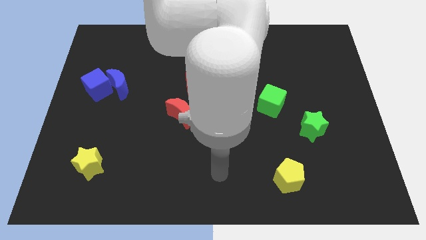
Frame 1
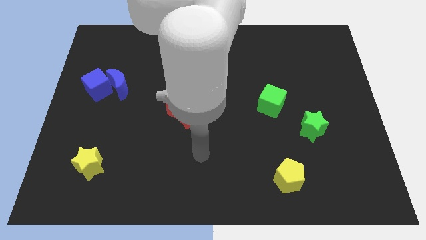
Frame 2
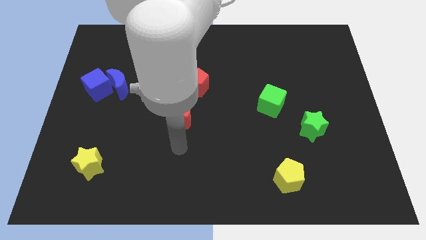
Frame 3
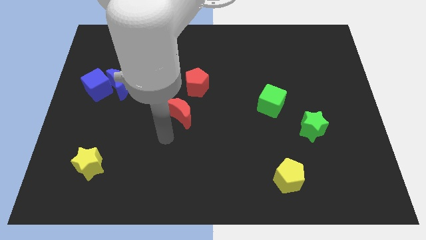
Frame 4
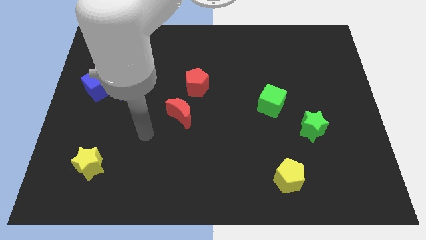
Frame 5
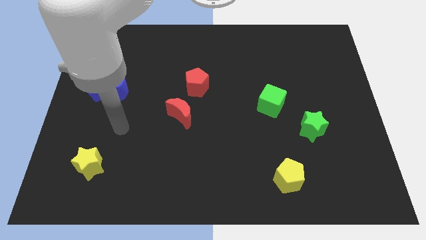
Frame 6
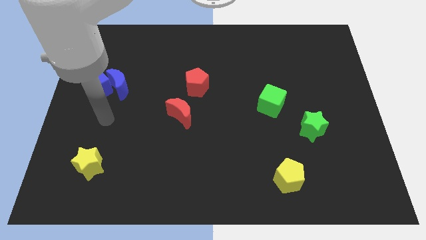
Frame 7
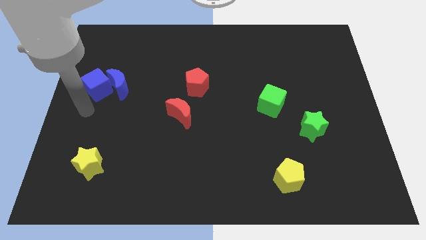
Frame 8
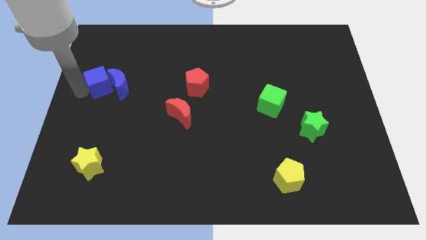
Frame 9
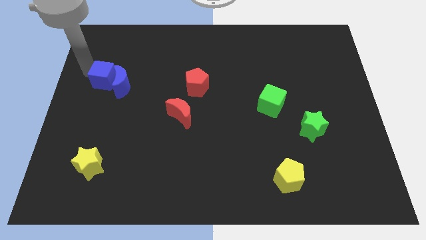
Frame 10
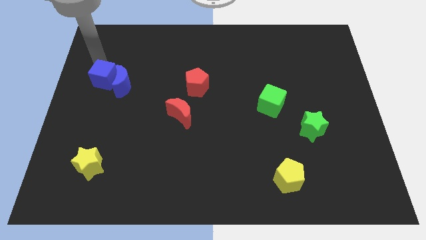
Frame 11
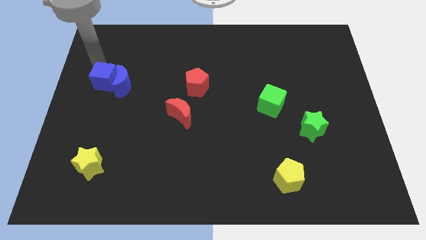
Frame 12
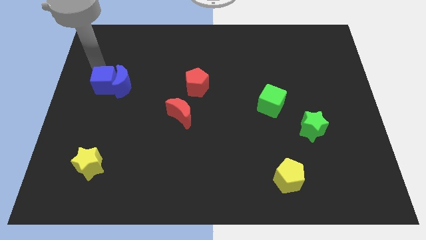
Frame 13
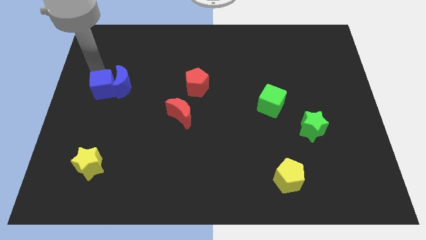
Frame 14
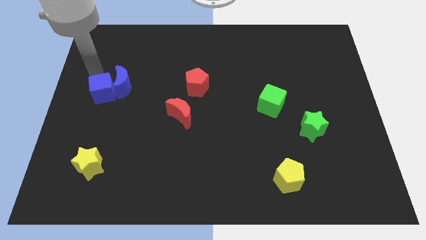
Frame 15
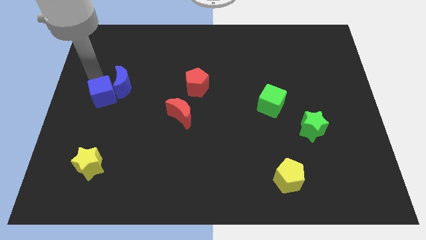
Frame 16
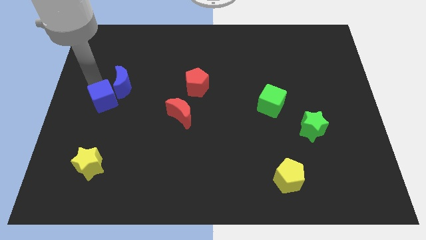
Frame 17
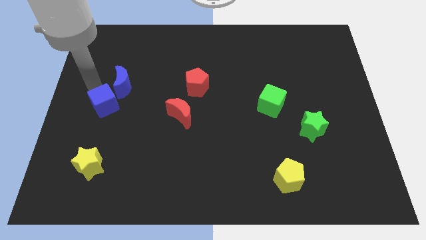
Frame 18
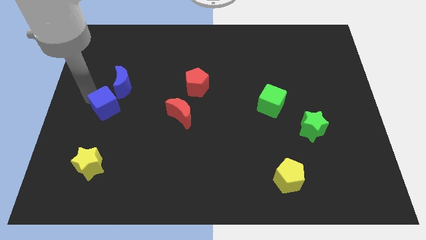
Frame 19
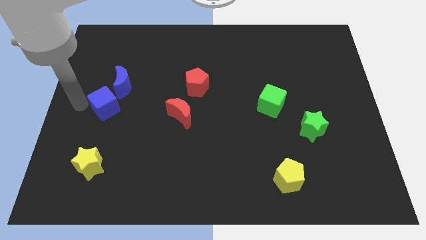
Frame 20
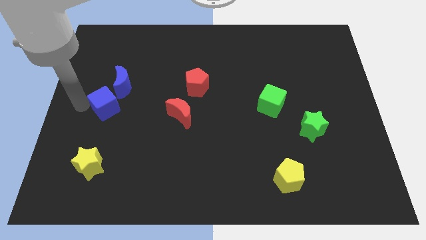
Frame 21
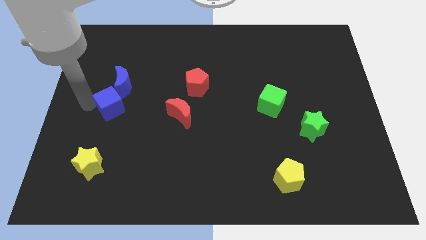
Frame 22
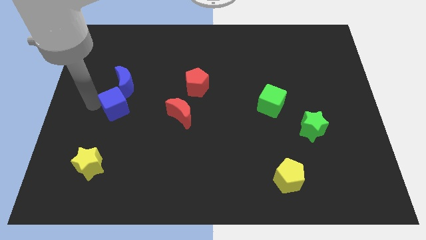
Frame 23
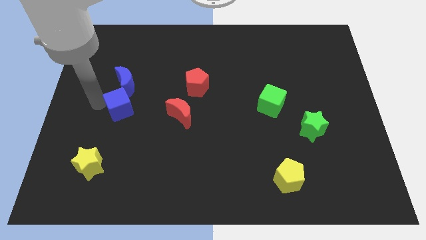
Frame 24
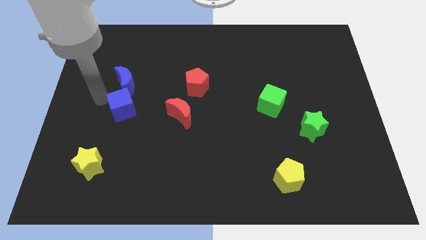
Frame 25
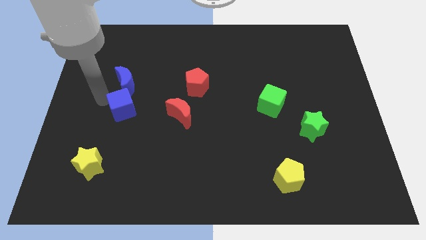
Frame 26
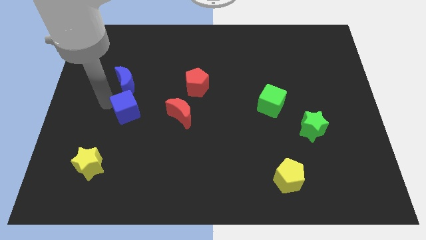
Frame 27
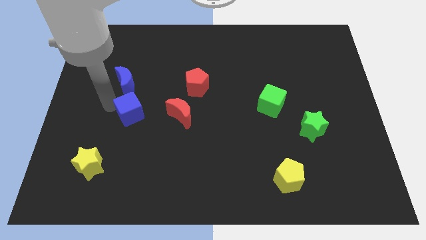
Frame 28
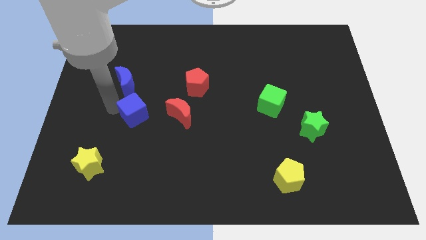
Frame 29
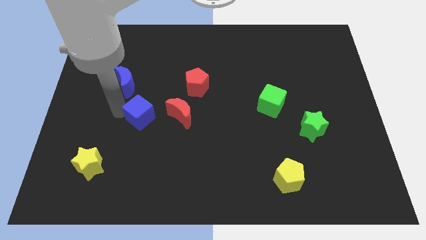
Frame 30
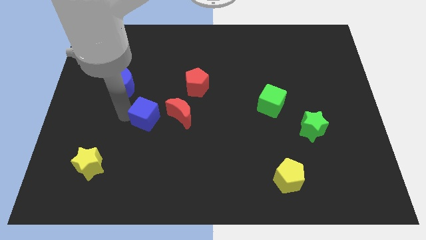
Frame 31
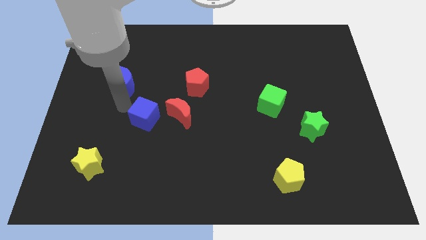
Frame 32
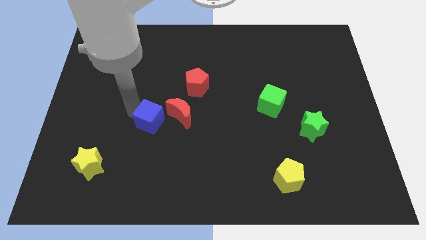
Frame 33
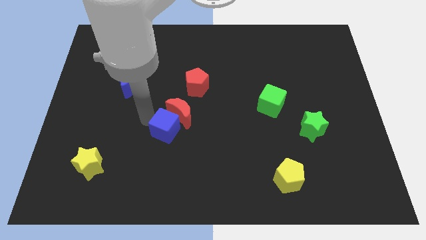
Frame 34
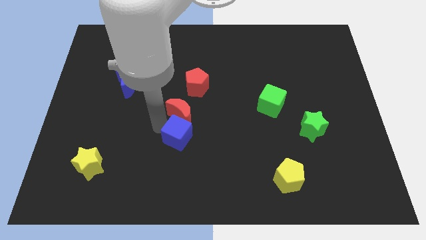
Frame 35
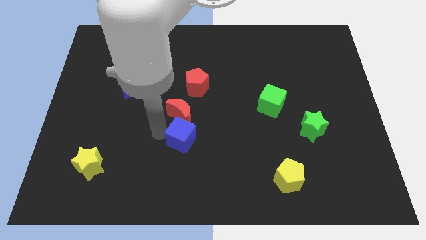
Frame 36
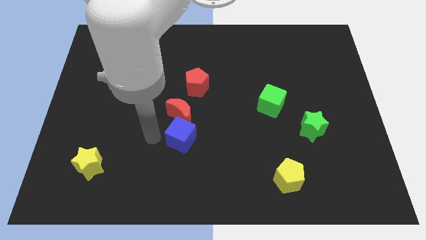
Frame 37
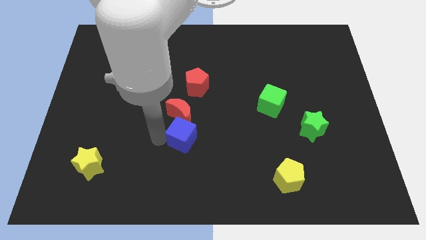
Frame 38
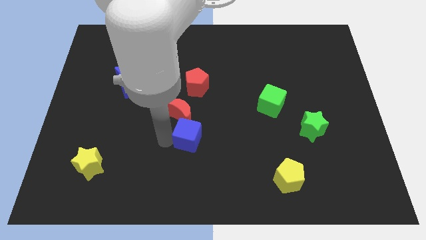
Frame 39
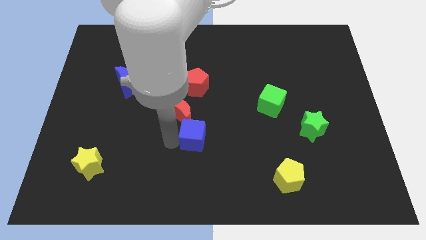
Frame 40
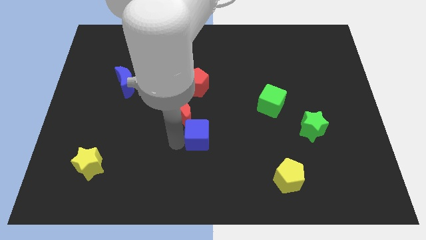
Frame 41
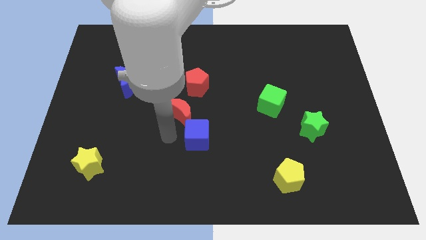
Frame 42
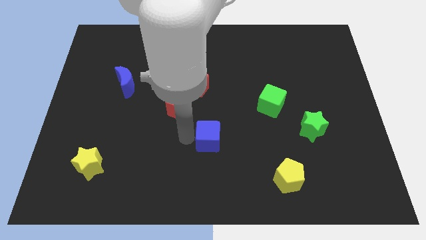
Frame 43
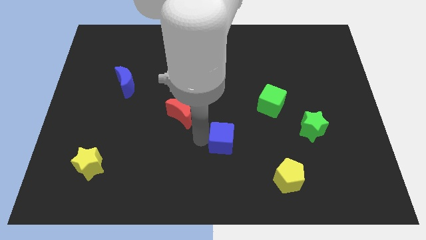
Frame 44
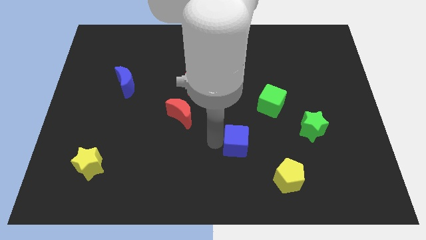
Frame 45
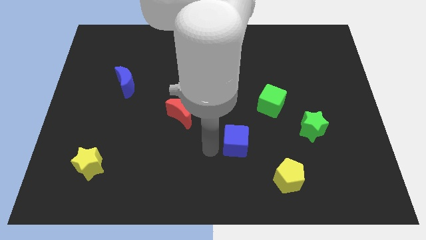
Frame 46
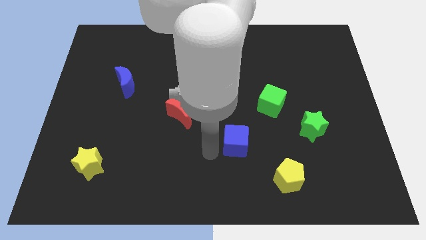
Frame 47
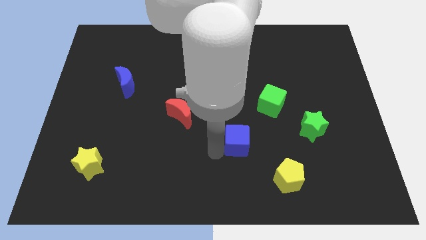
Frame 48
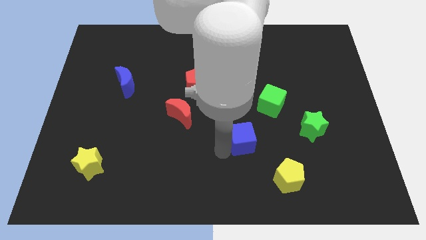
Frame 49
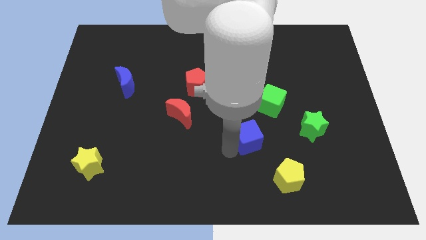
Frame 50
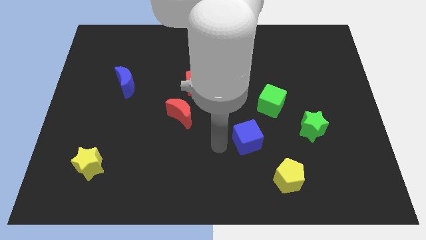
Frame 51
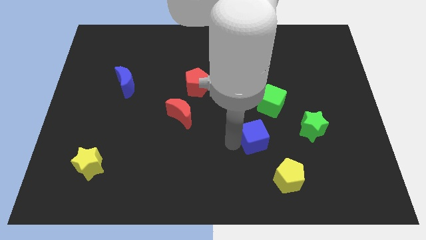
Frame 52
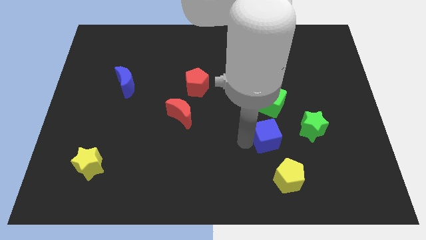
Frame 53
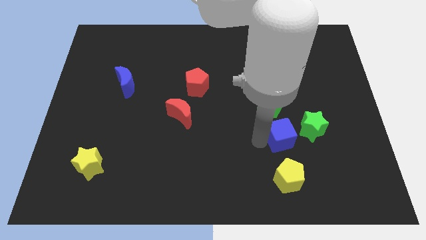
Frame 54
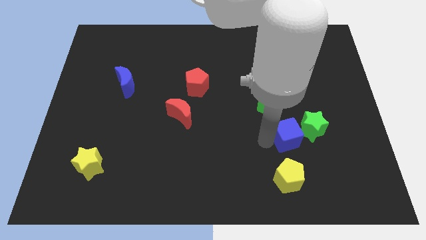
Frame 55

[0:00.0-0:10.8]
move the blue cube next to the green star

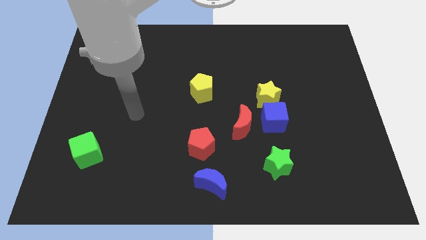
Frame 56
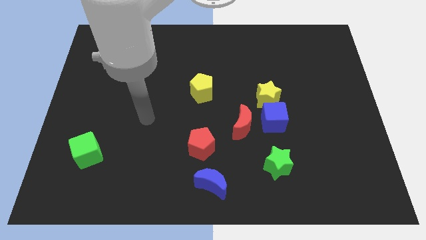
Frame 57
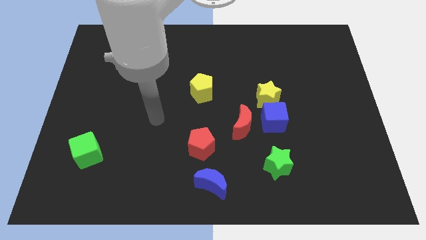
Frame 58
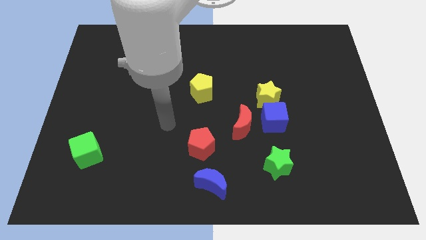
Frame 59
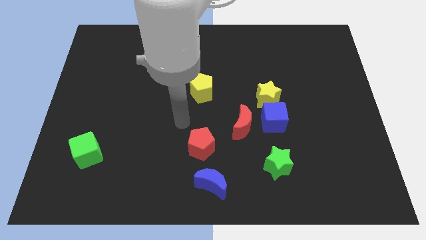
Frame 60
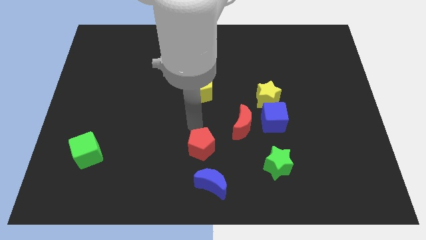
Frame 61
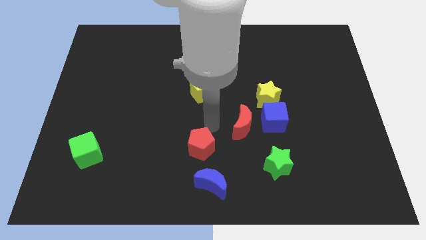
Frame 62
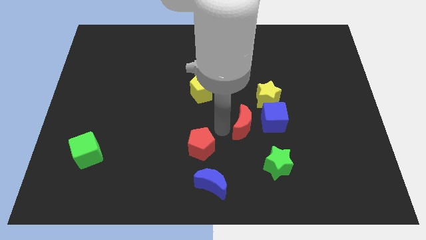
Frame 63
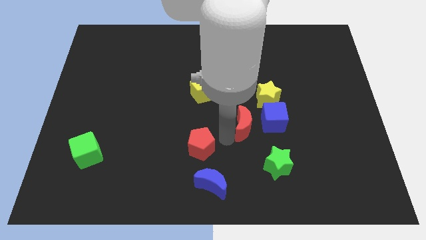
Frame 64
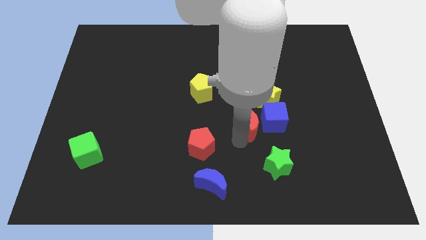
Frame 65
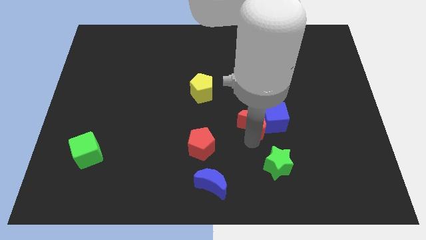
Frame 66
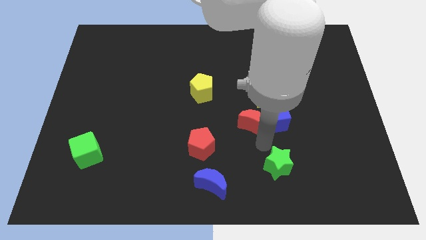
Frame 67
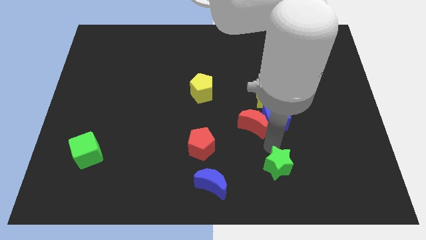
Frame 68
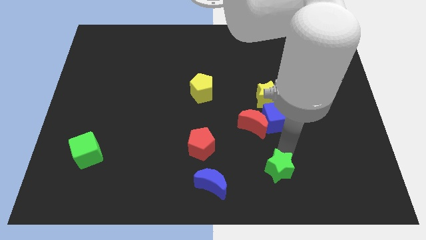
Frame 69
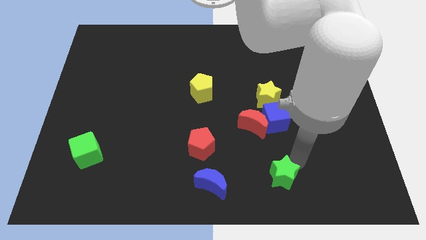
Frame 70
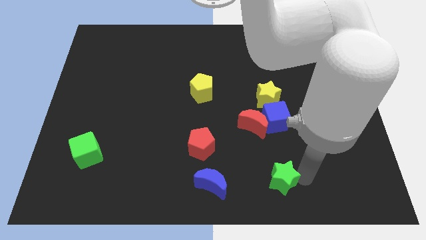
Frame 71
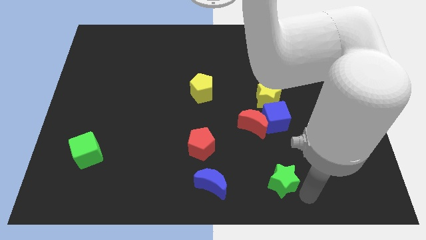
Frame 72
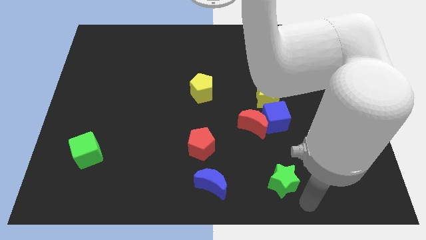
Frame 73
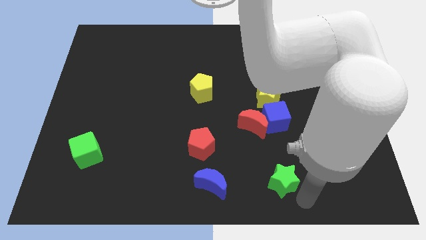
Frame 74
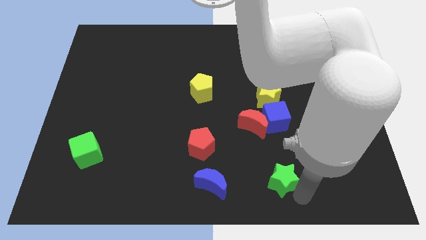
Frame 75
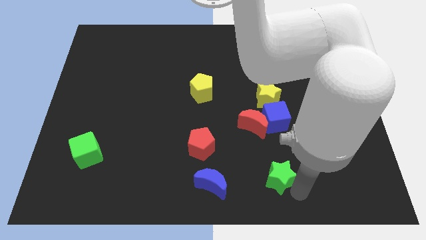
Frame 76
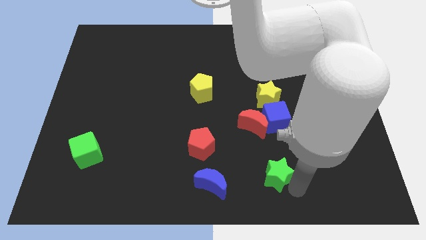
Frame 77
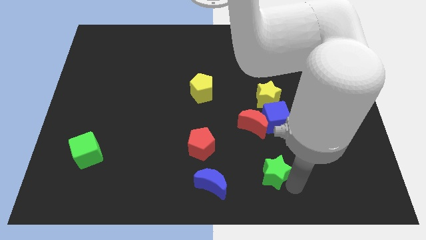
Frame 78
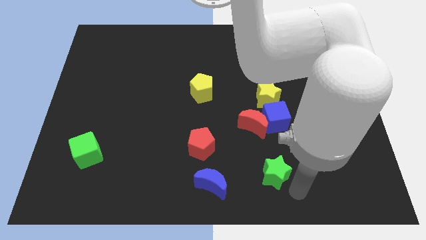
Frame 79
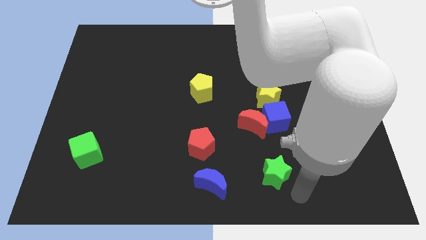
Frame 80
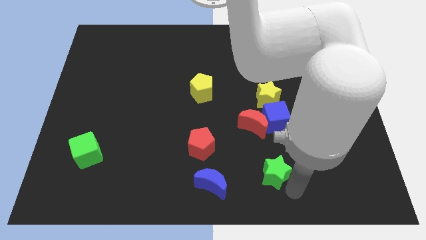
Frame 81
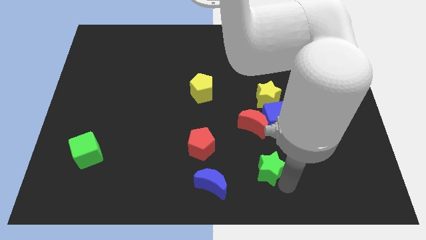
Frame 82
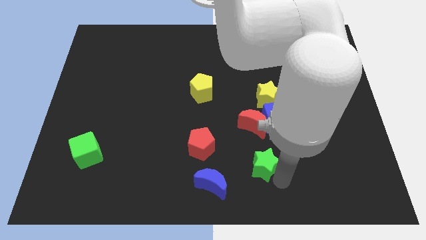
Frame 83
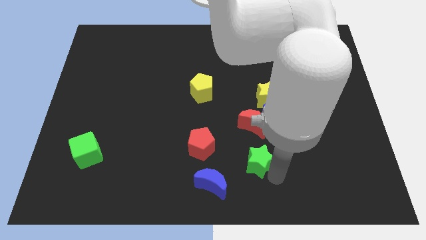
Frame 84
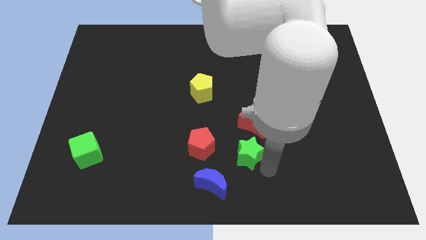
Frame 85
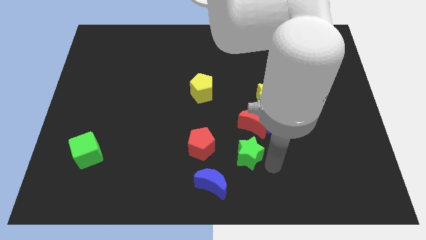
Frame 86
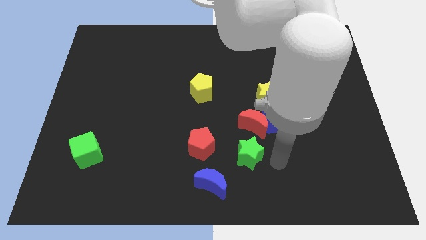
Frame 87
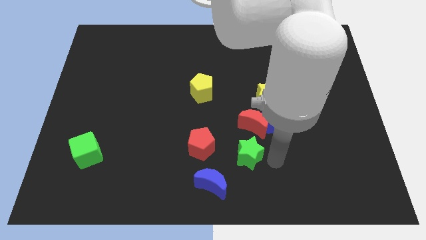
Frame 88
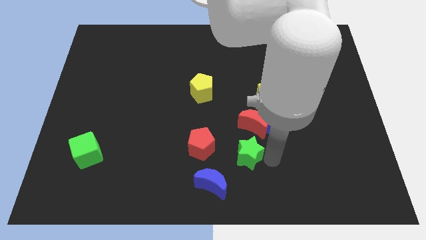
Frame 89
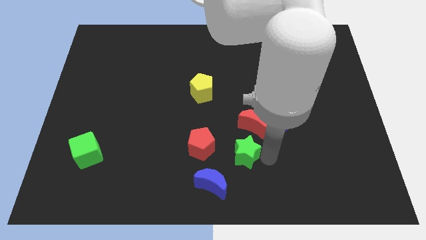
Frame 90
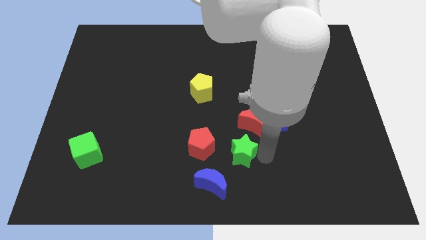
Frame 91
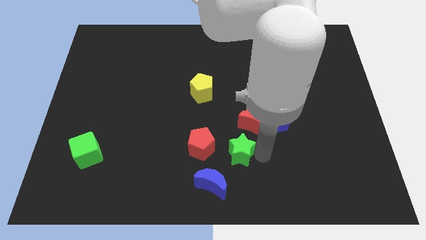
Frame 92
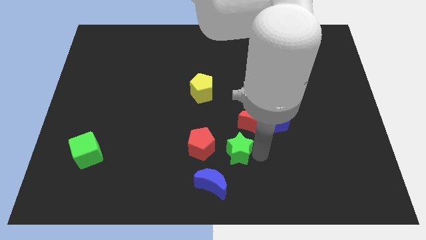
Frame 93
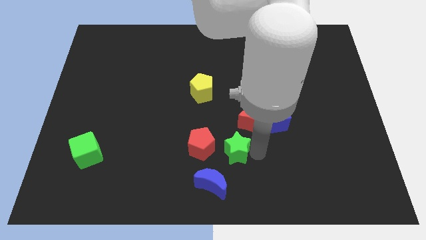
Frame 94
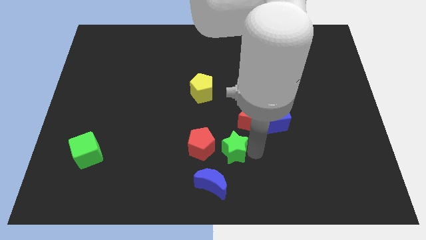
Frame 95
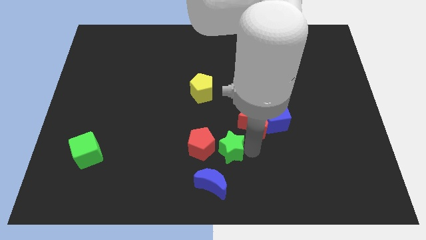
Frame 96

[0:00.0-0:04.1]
move the green star close to the red pentagon
